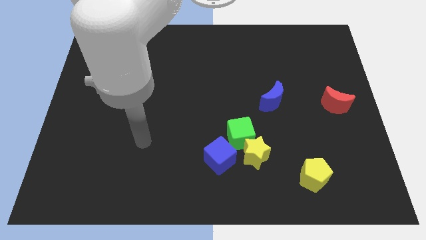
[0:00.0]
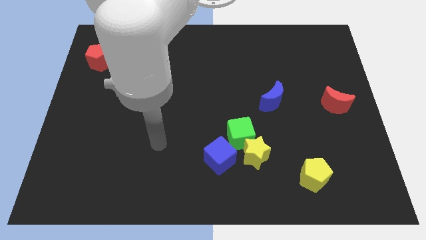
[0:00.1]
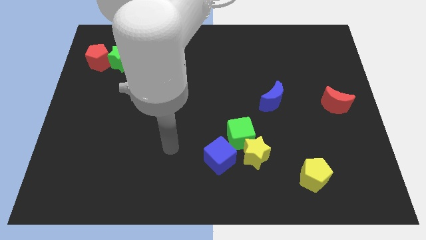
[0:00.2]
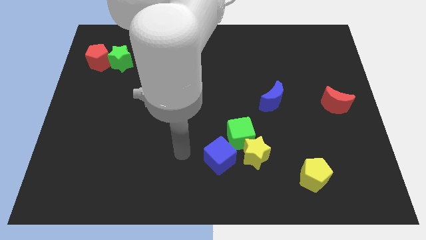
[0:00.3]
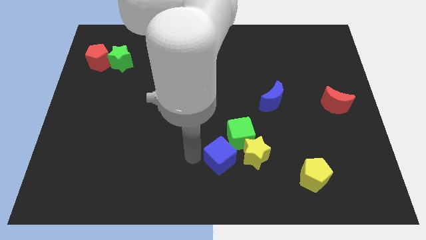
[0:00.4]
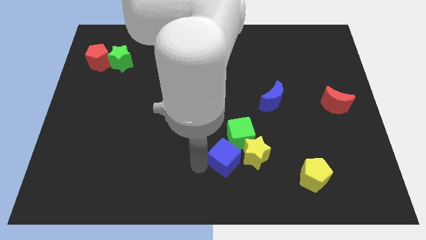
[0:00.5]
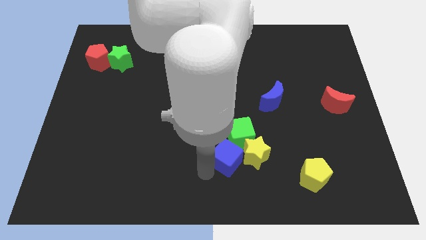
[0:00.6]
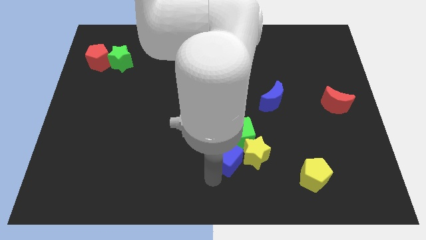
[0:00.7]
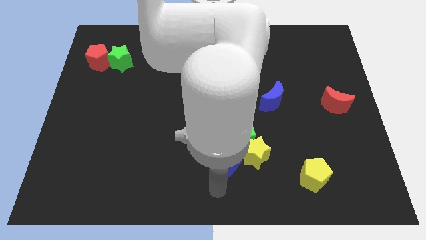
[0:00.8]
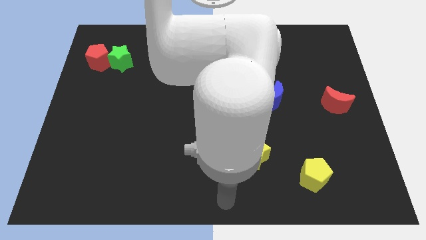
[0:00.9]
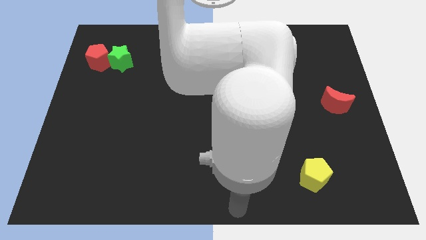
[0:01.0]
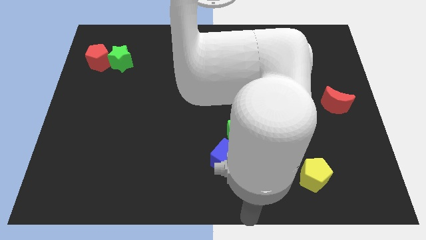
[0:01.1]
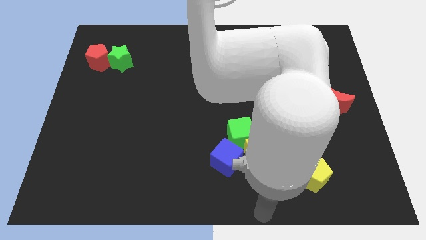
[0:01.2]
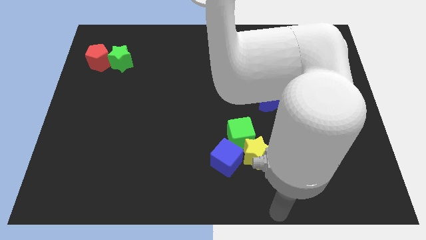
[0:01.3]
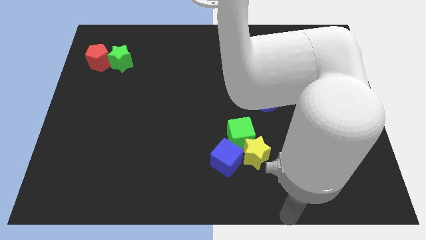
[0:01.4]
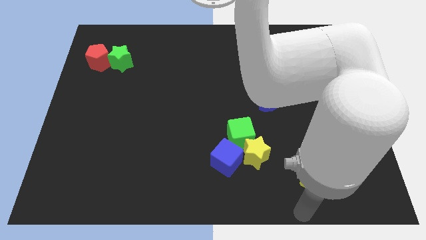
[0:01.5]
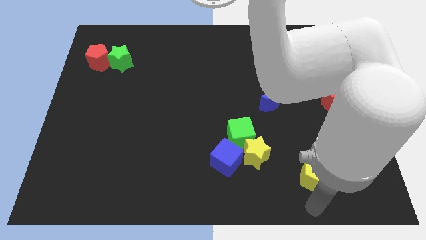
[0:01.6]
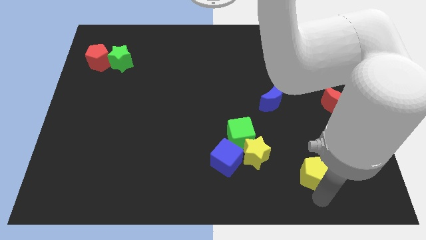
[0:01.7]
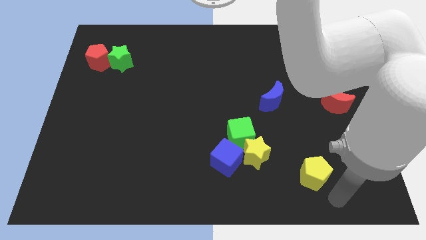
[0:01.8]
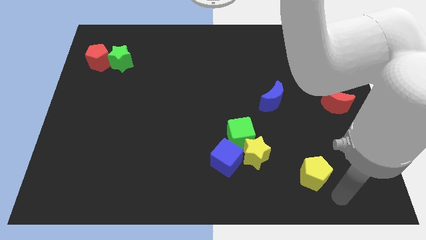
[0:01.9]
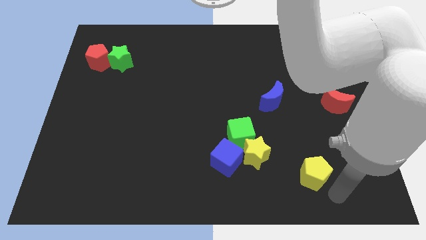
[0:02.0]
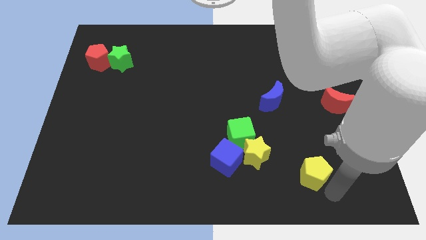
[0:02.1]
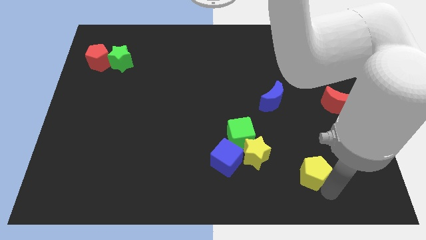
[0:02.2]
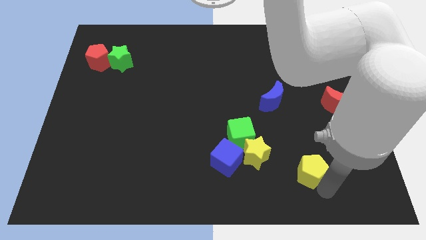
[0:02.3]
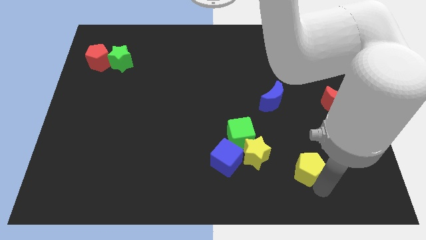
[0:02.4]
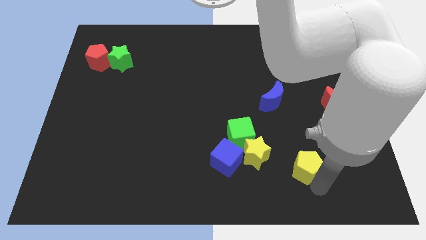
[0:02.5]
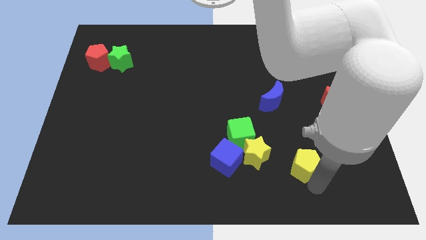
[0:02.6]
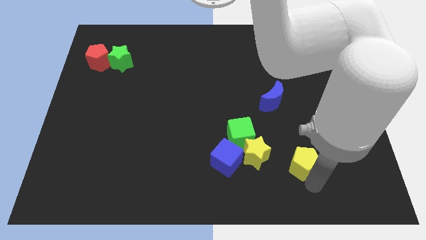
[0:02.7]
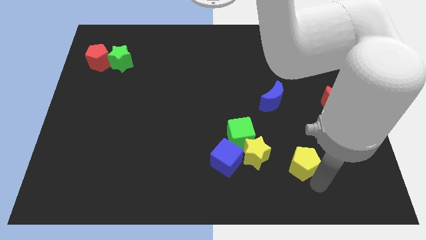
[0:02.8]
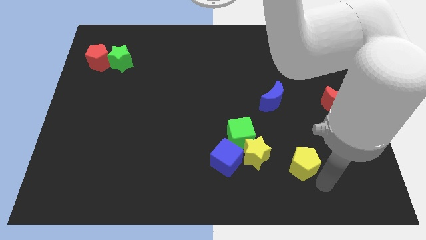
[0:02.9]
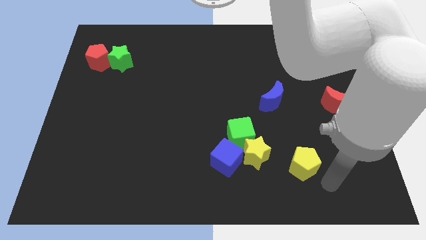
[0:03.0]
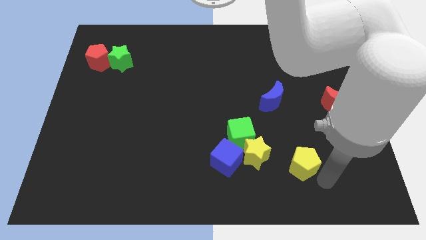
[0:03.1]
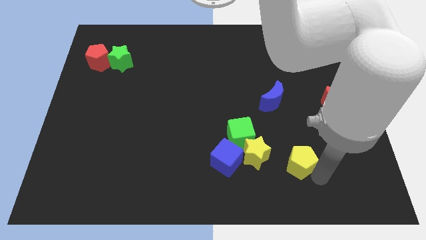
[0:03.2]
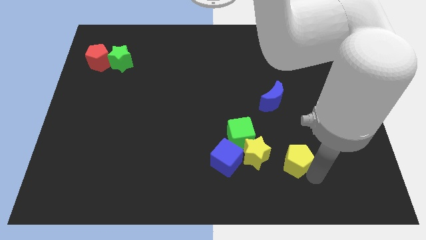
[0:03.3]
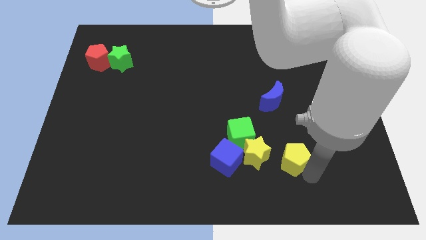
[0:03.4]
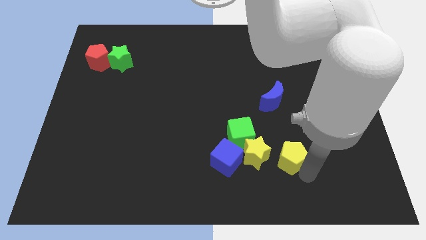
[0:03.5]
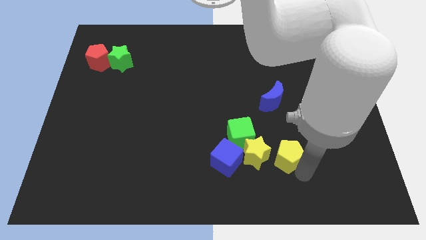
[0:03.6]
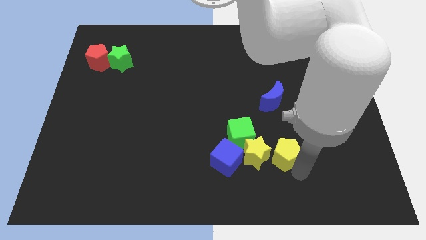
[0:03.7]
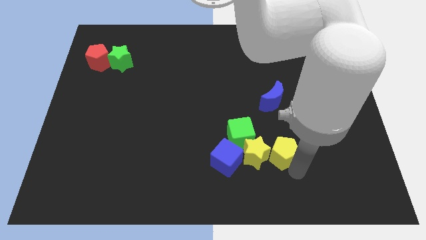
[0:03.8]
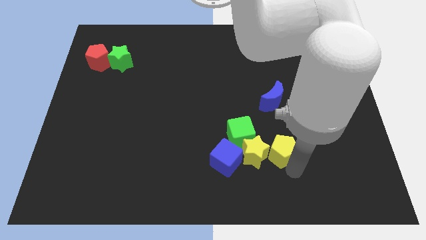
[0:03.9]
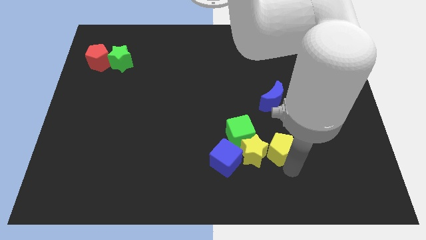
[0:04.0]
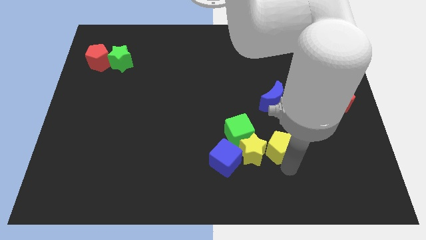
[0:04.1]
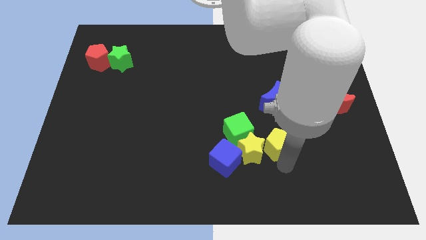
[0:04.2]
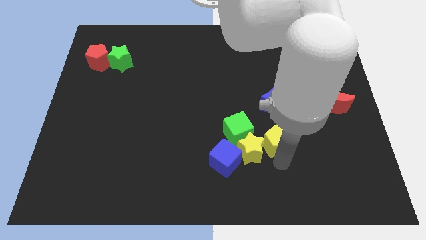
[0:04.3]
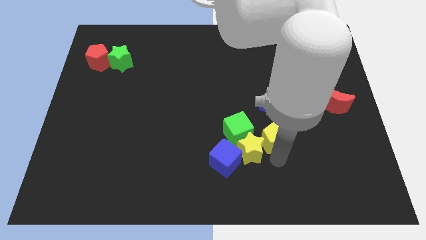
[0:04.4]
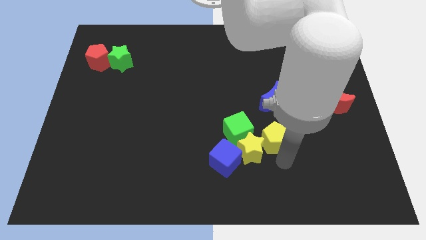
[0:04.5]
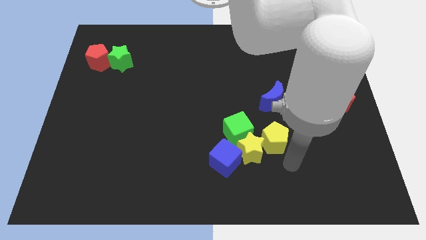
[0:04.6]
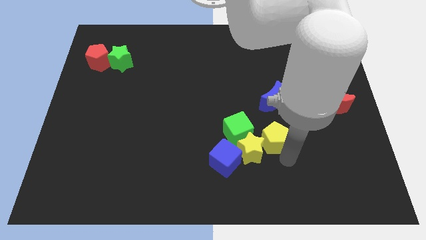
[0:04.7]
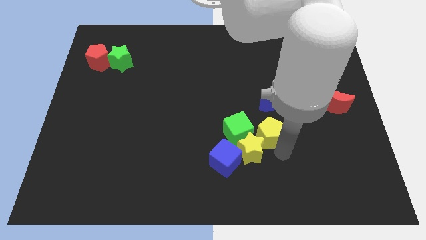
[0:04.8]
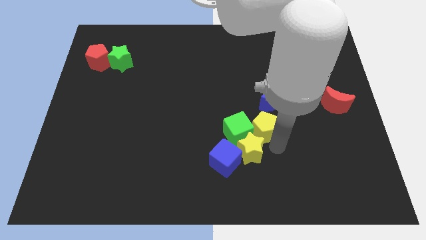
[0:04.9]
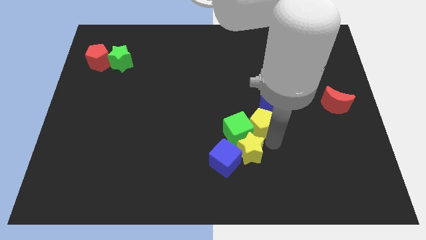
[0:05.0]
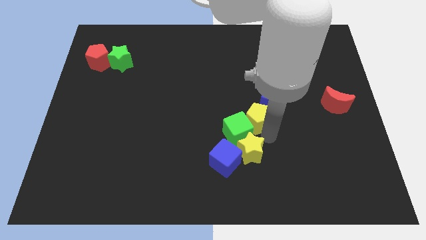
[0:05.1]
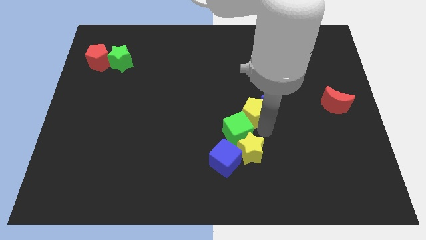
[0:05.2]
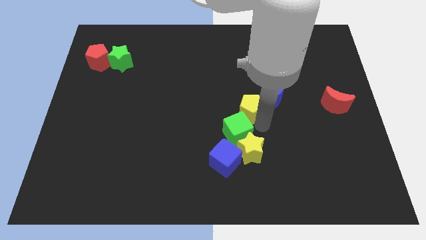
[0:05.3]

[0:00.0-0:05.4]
push the yellow pentagon diagonally upwards and to the left

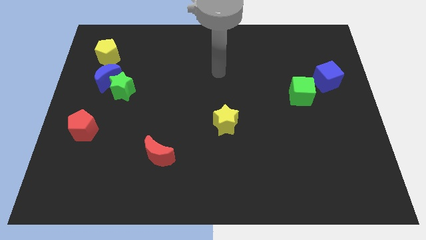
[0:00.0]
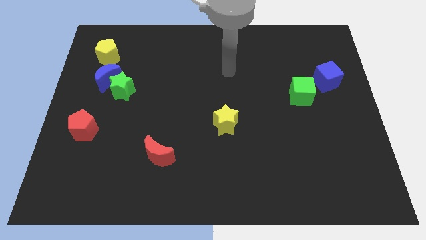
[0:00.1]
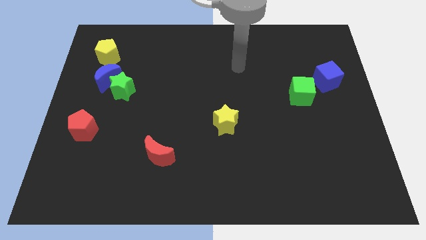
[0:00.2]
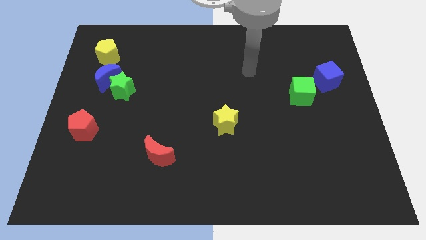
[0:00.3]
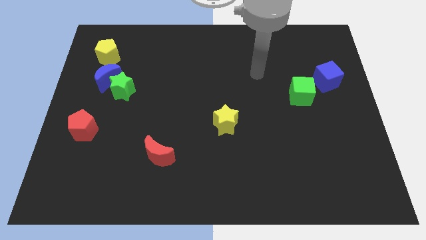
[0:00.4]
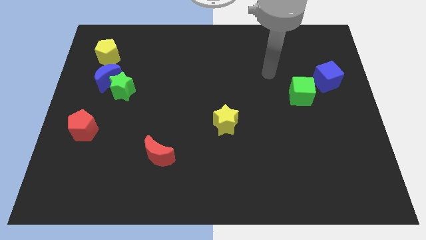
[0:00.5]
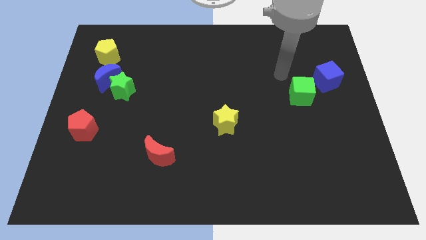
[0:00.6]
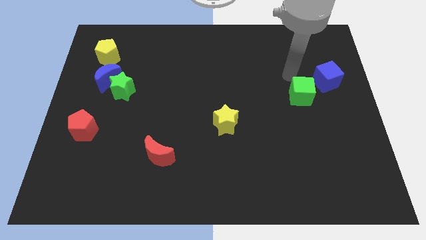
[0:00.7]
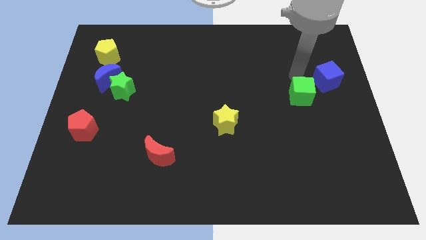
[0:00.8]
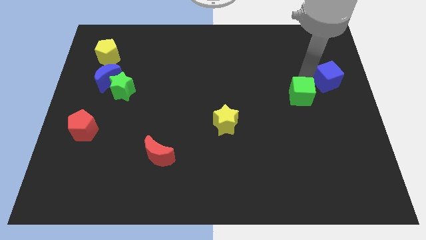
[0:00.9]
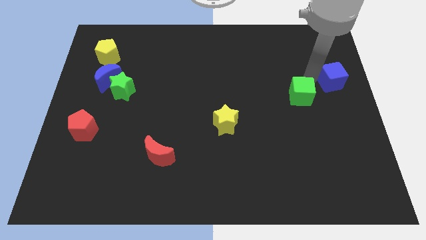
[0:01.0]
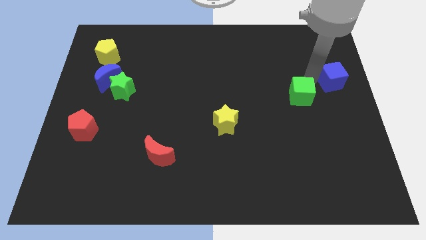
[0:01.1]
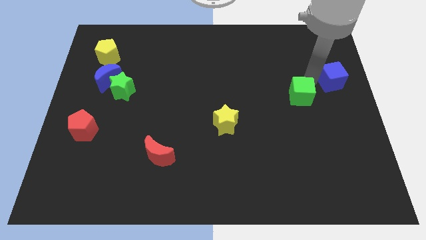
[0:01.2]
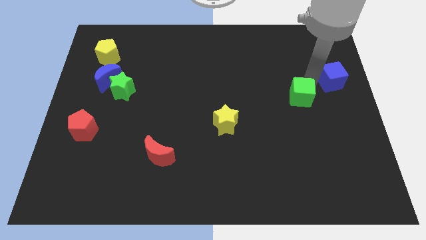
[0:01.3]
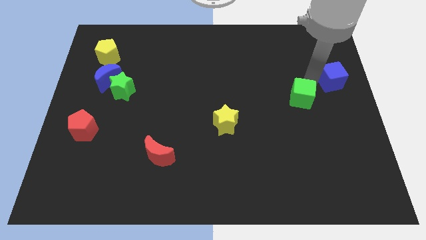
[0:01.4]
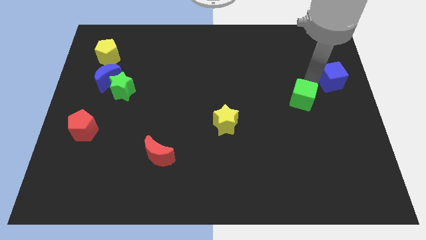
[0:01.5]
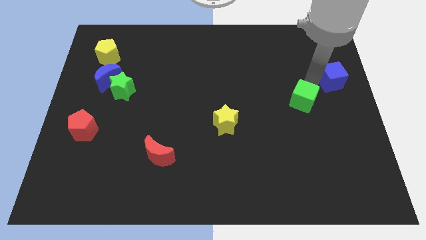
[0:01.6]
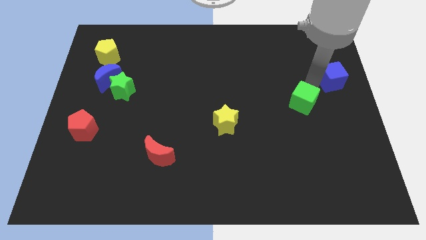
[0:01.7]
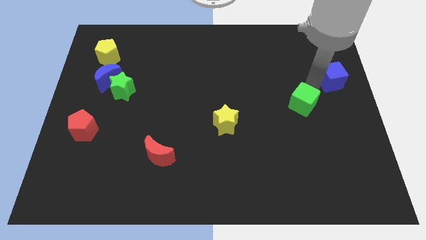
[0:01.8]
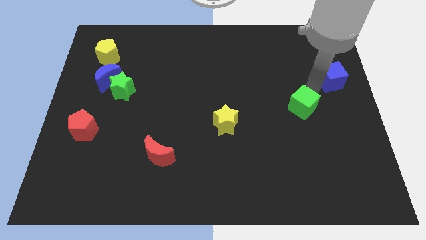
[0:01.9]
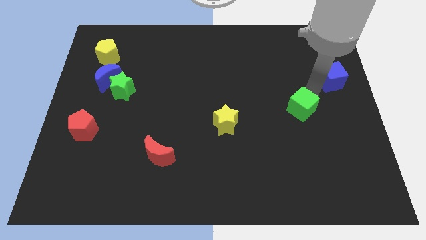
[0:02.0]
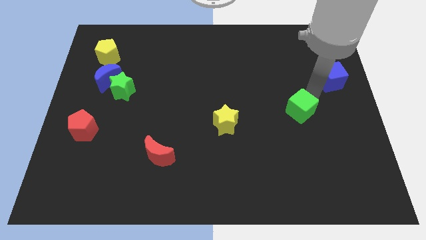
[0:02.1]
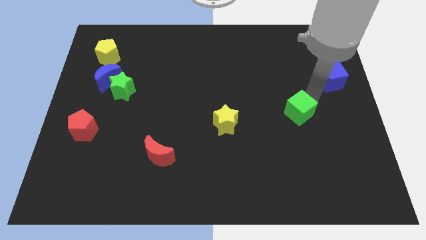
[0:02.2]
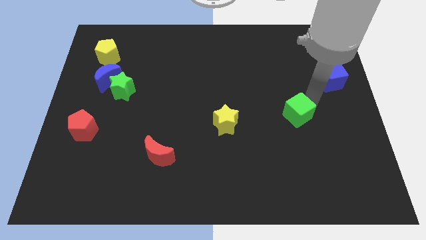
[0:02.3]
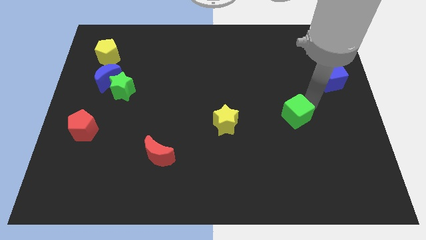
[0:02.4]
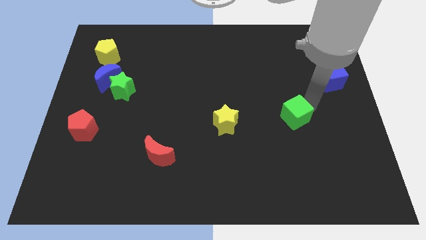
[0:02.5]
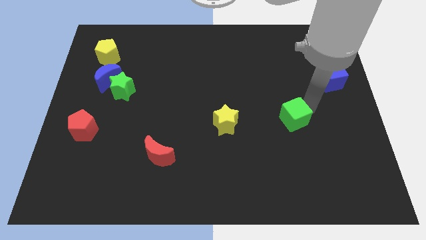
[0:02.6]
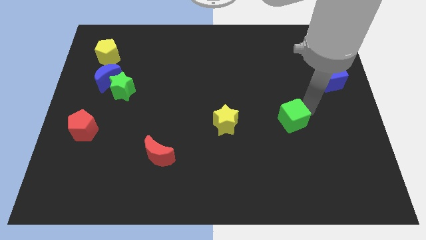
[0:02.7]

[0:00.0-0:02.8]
push the green cube a bit downwards and then left
